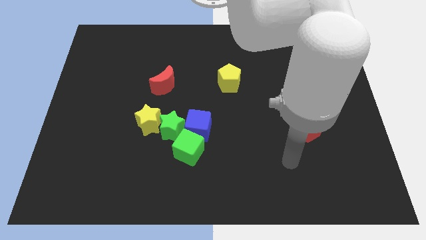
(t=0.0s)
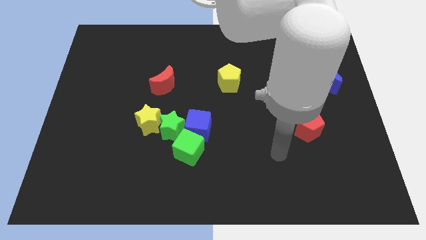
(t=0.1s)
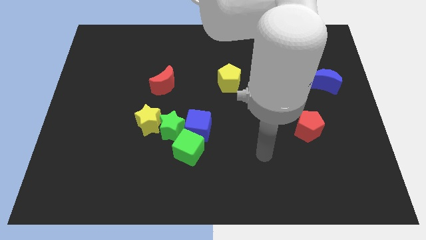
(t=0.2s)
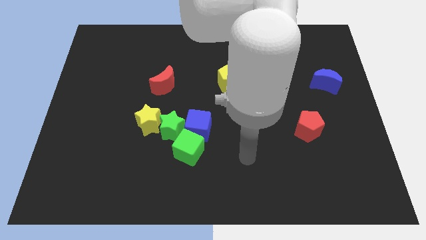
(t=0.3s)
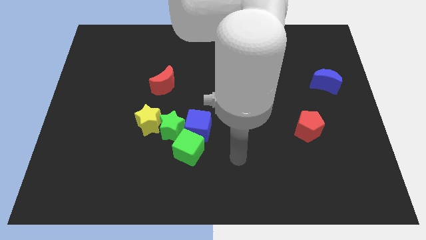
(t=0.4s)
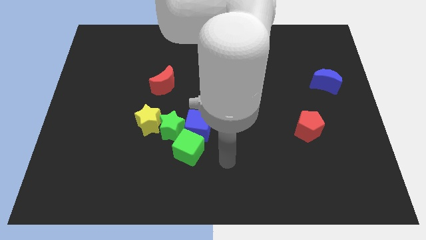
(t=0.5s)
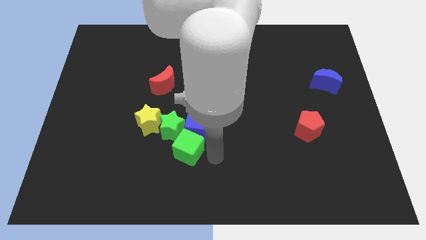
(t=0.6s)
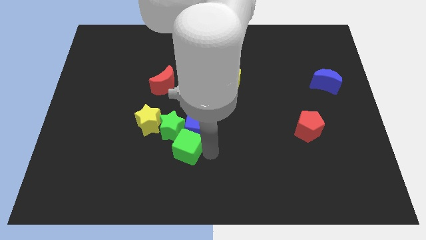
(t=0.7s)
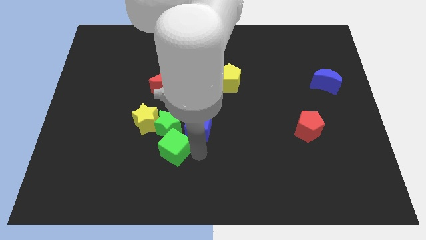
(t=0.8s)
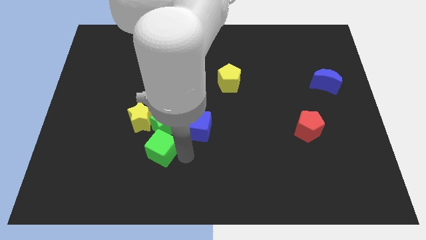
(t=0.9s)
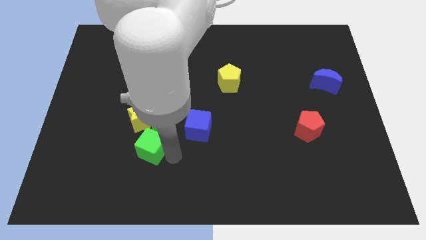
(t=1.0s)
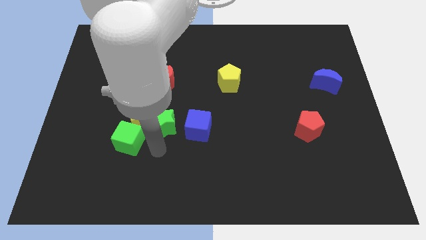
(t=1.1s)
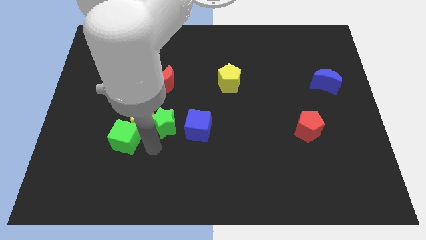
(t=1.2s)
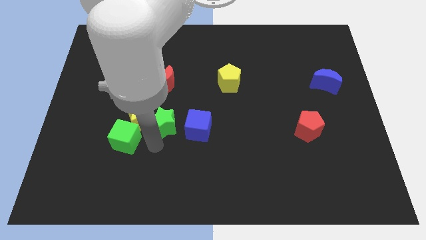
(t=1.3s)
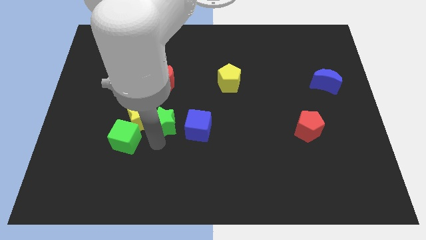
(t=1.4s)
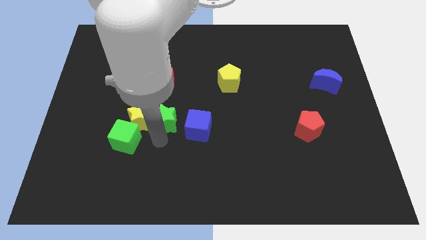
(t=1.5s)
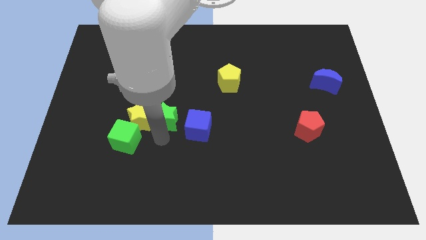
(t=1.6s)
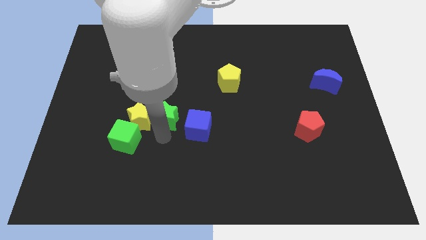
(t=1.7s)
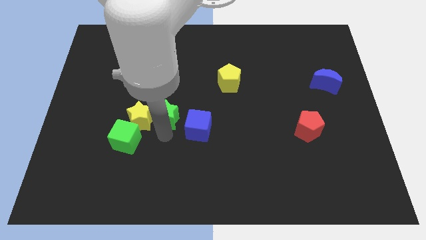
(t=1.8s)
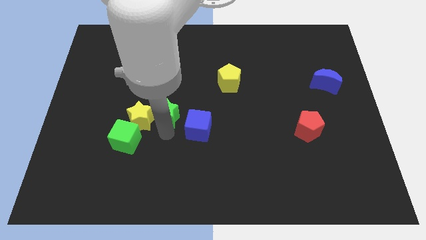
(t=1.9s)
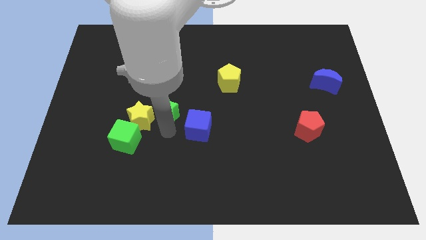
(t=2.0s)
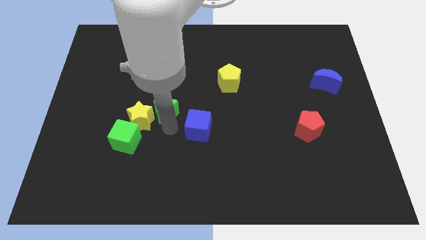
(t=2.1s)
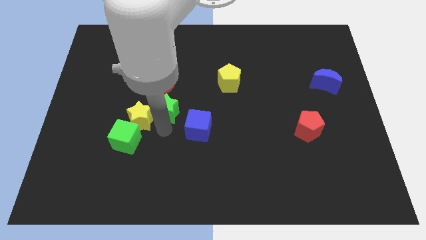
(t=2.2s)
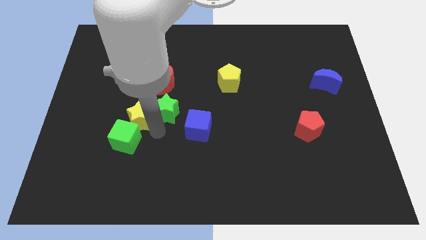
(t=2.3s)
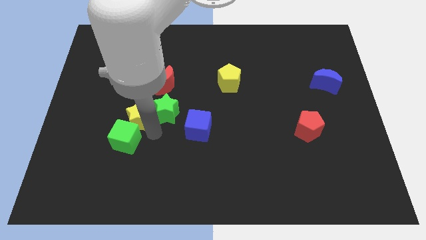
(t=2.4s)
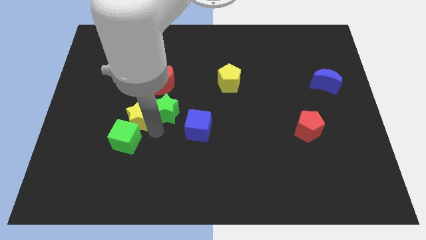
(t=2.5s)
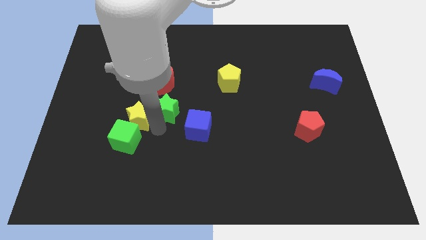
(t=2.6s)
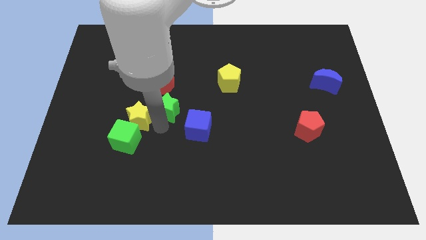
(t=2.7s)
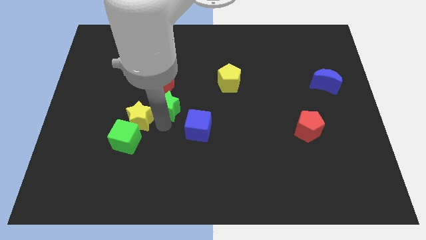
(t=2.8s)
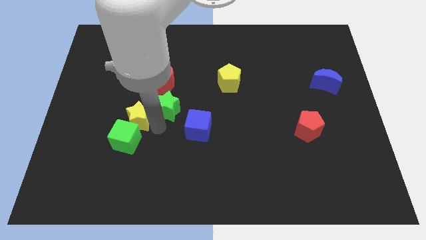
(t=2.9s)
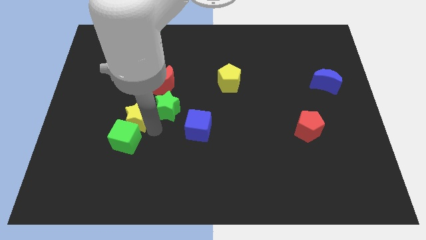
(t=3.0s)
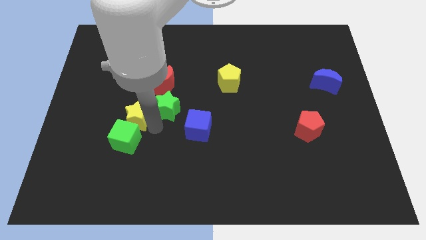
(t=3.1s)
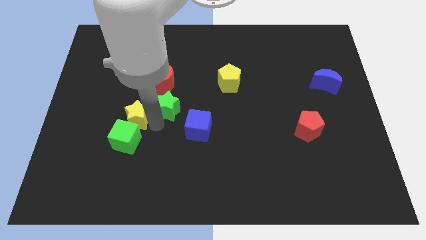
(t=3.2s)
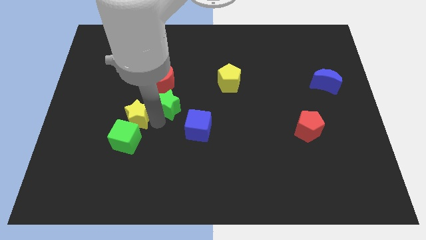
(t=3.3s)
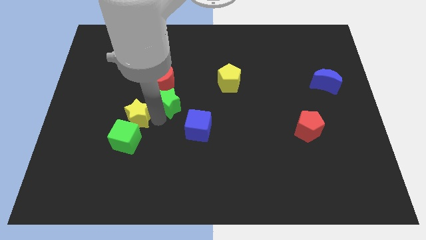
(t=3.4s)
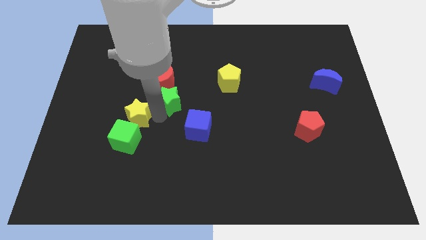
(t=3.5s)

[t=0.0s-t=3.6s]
move the green star a bit up

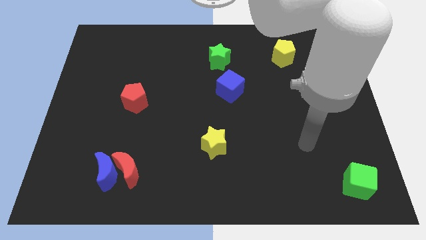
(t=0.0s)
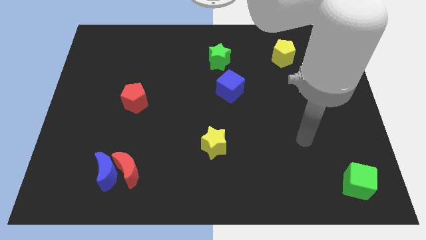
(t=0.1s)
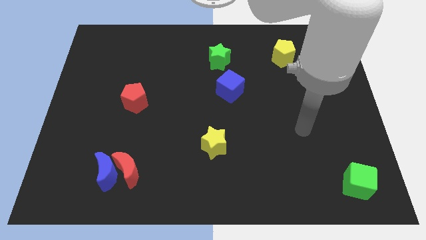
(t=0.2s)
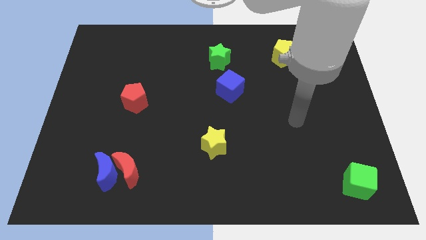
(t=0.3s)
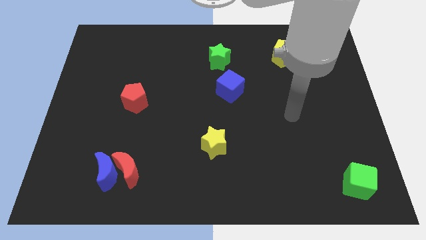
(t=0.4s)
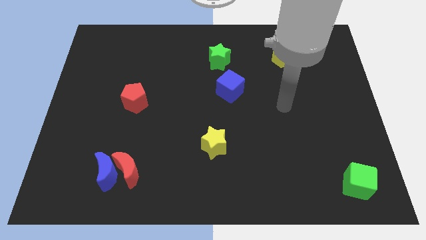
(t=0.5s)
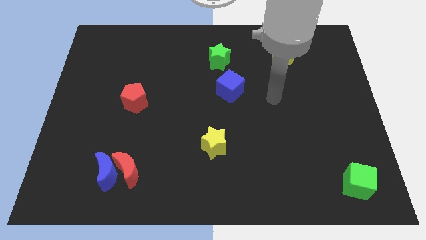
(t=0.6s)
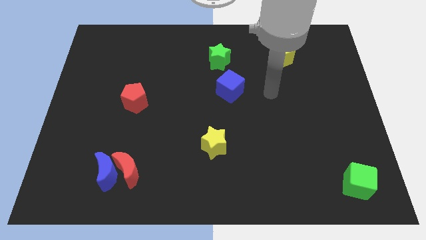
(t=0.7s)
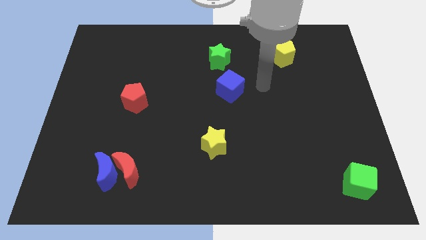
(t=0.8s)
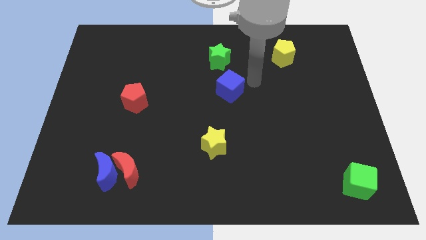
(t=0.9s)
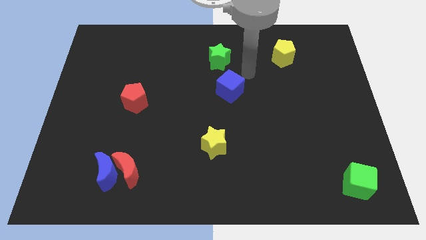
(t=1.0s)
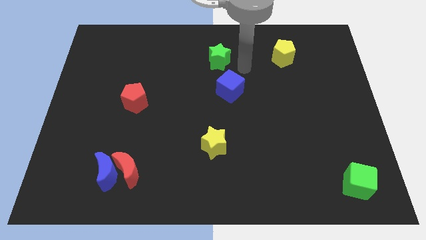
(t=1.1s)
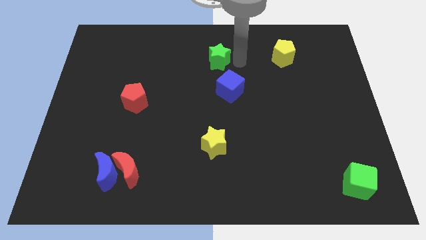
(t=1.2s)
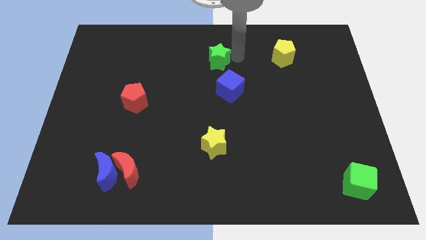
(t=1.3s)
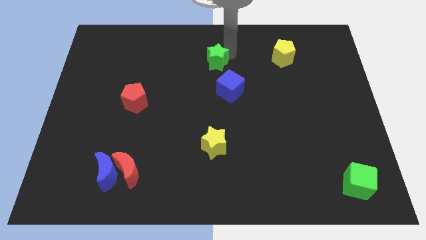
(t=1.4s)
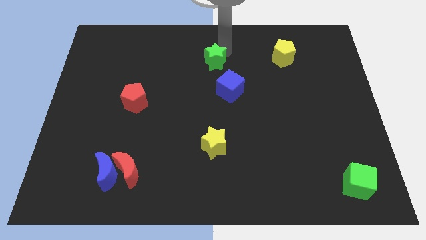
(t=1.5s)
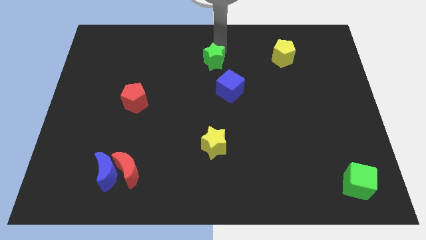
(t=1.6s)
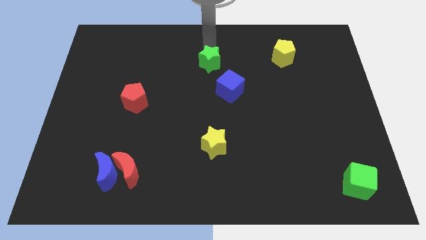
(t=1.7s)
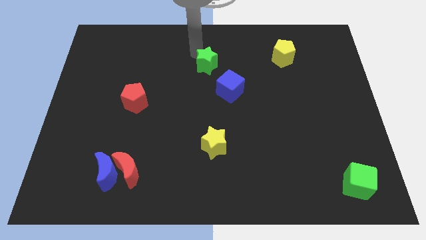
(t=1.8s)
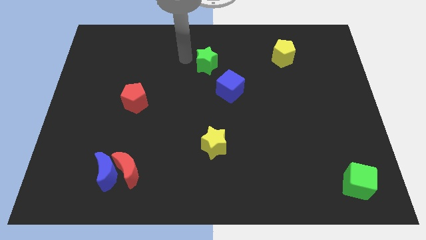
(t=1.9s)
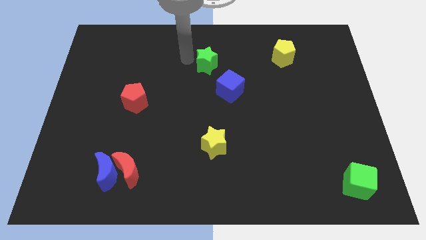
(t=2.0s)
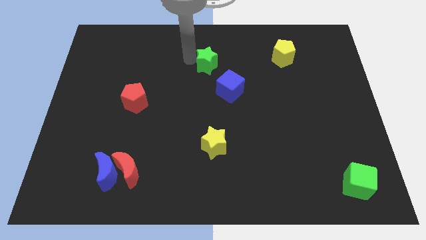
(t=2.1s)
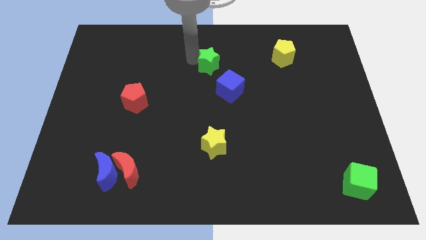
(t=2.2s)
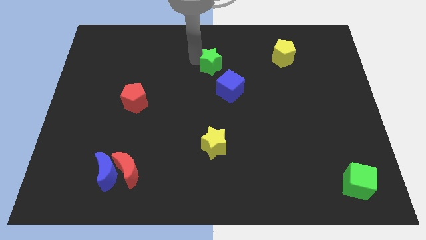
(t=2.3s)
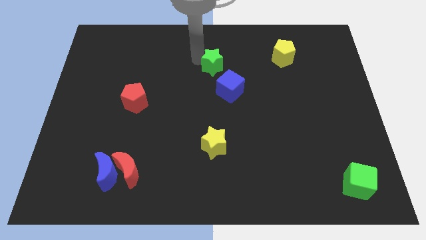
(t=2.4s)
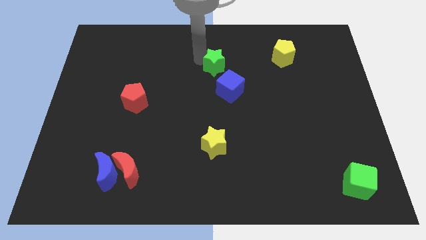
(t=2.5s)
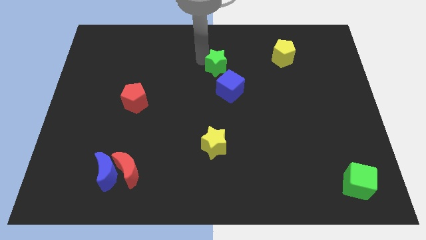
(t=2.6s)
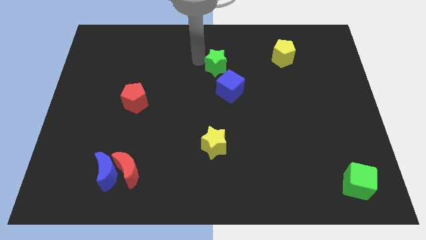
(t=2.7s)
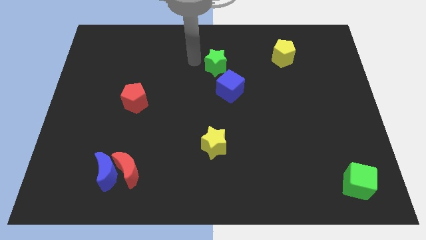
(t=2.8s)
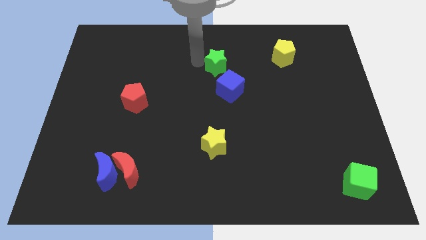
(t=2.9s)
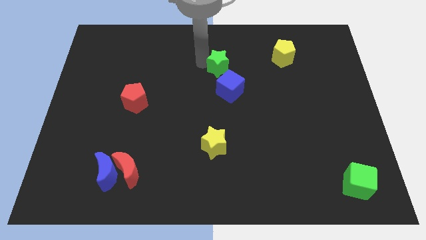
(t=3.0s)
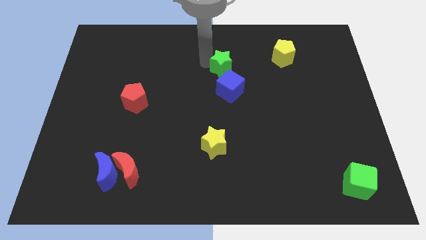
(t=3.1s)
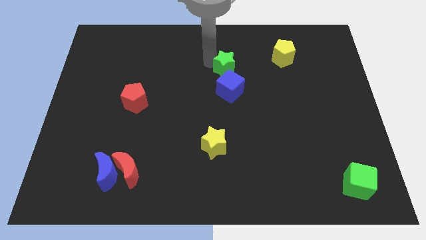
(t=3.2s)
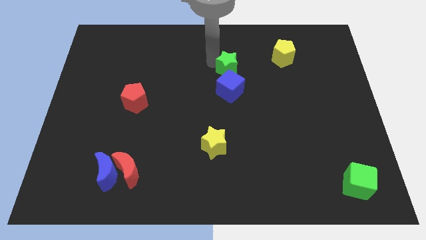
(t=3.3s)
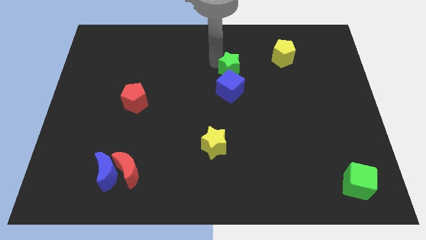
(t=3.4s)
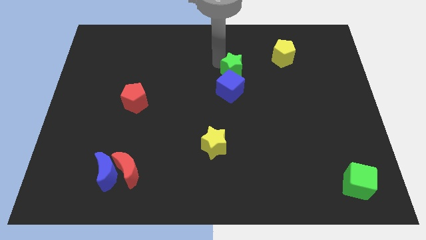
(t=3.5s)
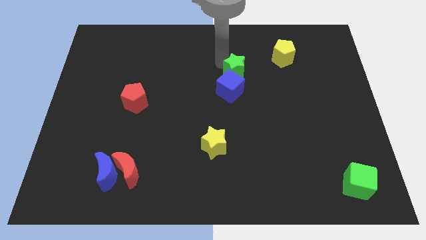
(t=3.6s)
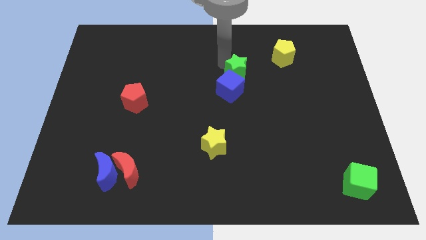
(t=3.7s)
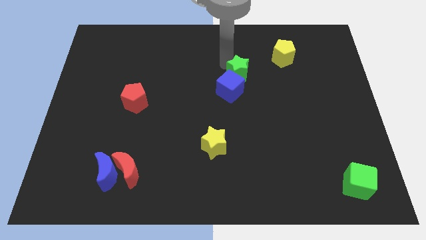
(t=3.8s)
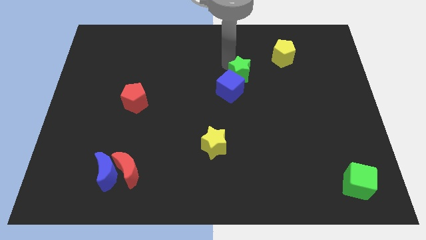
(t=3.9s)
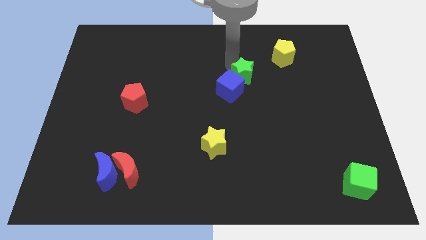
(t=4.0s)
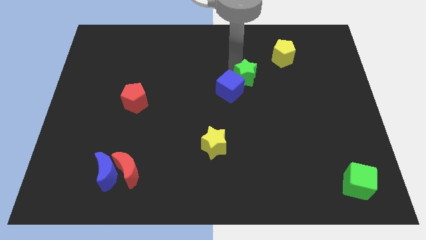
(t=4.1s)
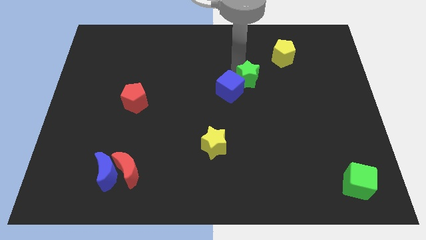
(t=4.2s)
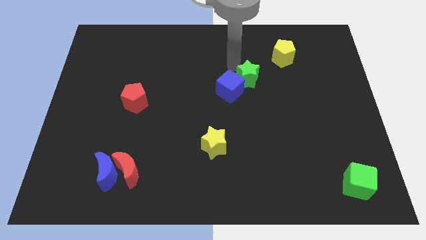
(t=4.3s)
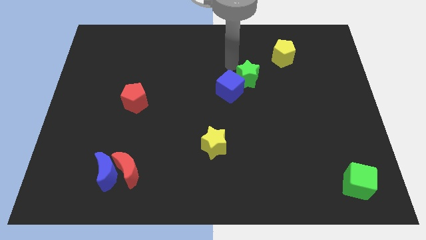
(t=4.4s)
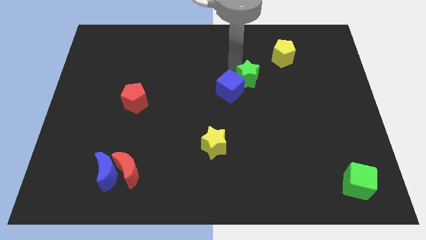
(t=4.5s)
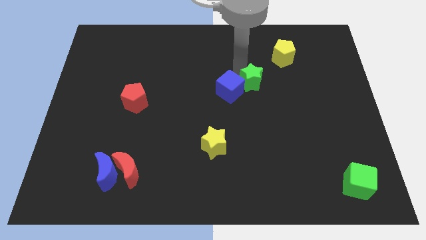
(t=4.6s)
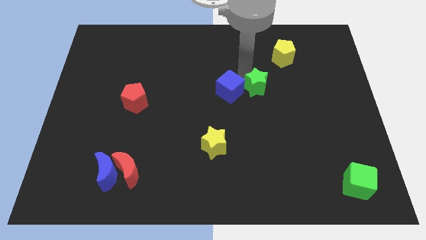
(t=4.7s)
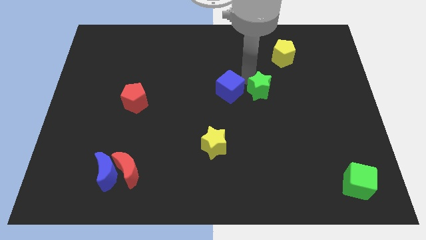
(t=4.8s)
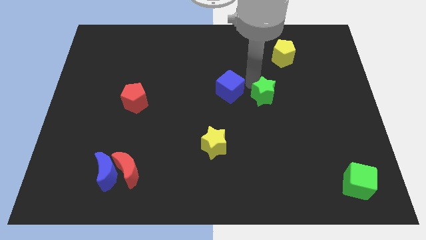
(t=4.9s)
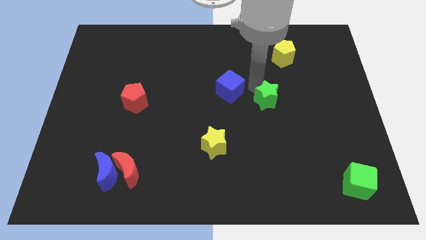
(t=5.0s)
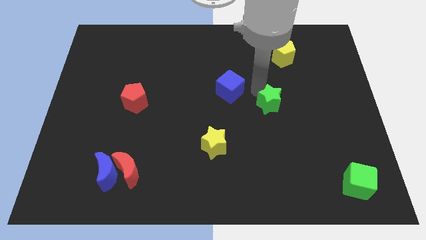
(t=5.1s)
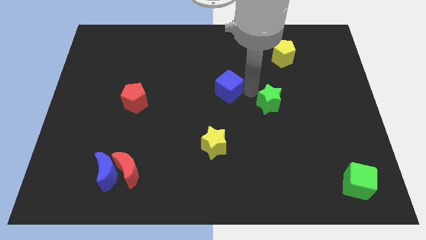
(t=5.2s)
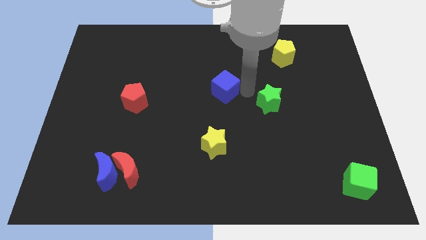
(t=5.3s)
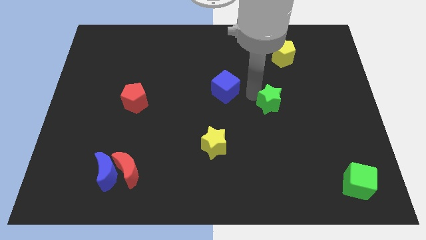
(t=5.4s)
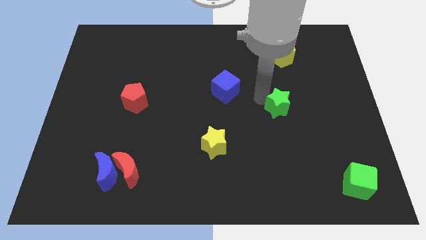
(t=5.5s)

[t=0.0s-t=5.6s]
move the green star diagonally down and right
